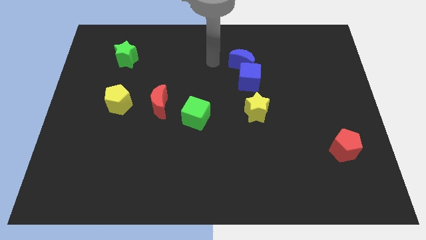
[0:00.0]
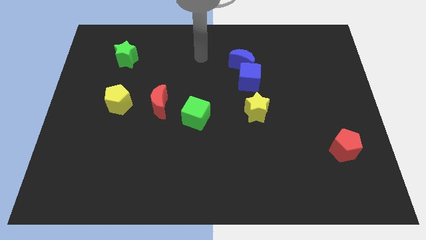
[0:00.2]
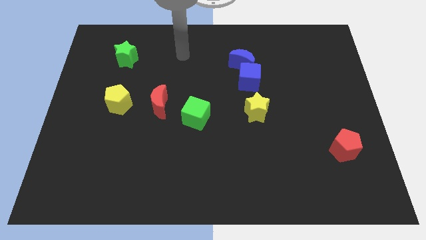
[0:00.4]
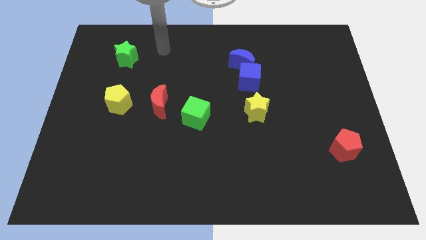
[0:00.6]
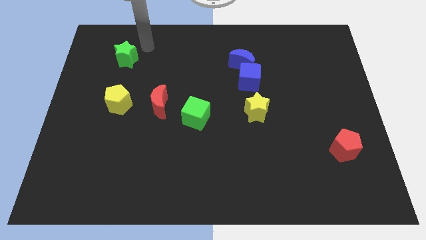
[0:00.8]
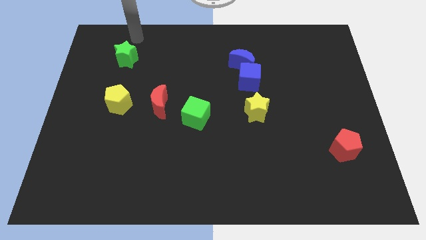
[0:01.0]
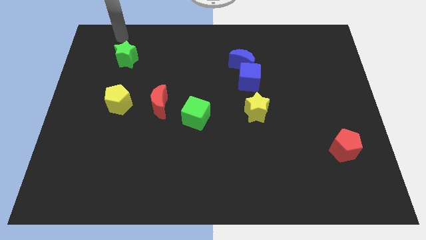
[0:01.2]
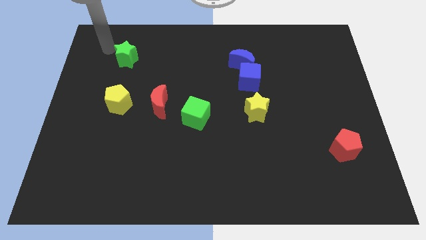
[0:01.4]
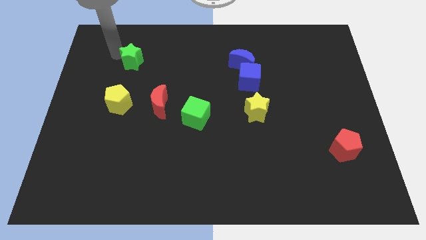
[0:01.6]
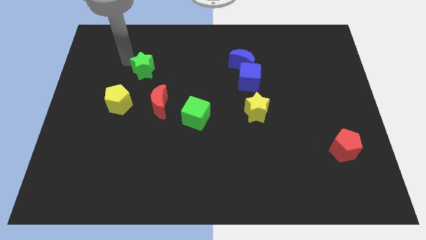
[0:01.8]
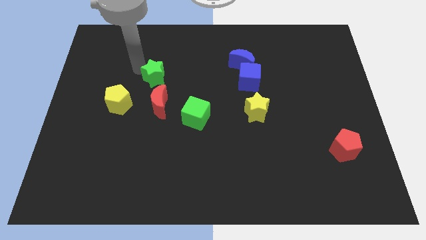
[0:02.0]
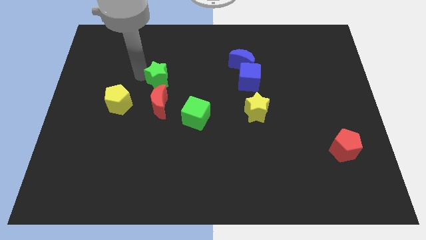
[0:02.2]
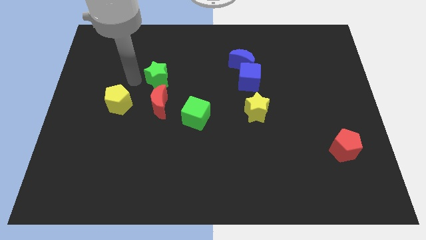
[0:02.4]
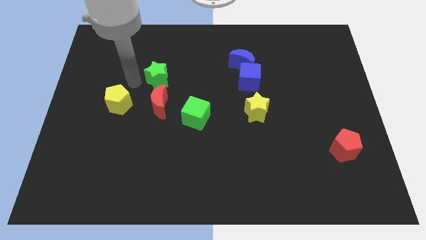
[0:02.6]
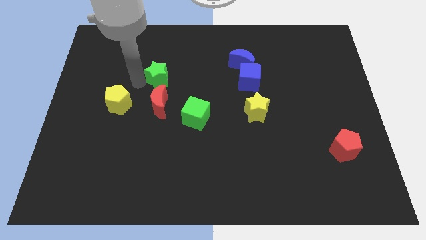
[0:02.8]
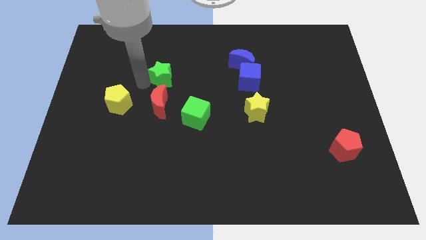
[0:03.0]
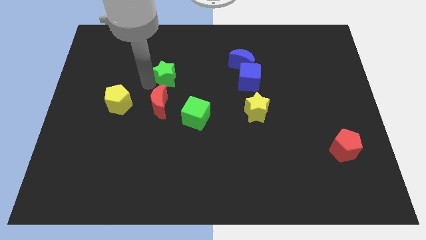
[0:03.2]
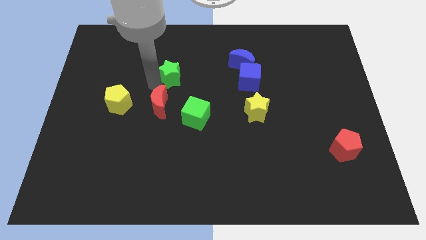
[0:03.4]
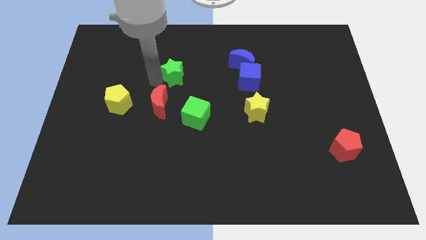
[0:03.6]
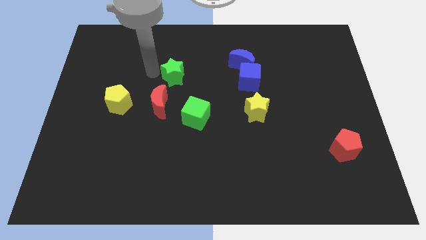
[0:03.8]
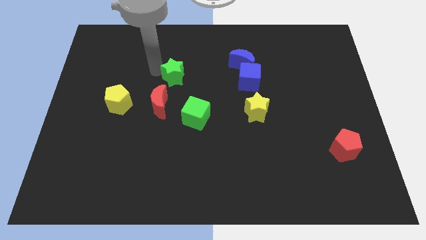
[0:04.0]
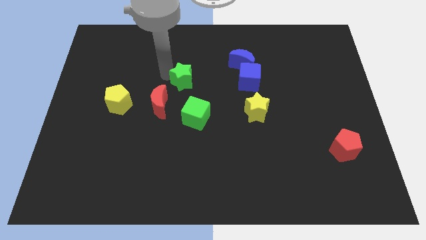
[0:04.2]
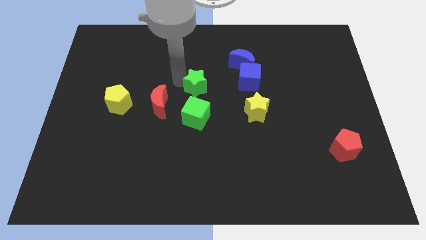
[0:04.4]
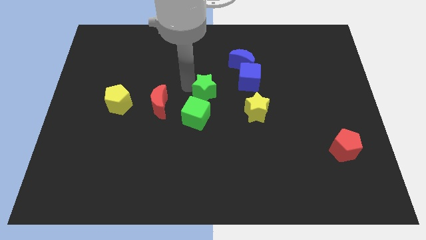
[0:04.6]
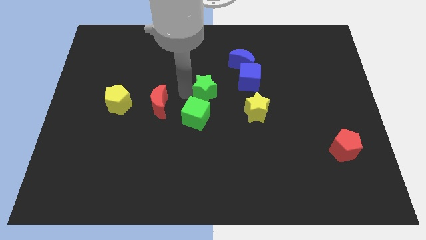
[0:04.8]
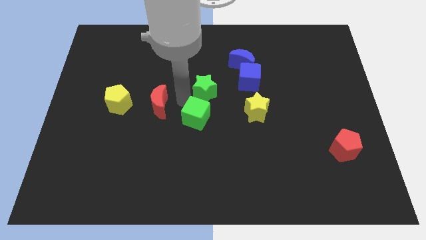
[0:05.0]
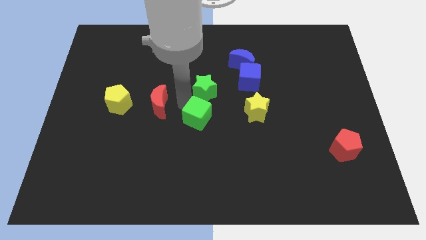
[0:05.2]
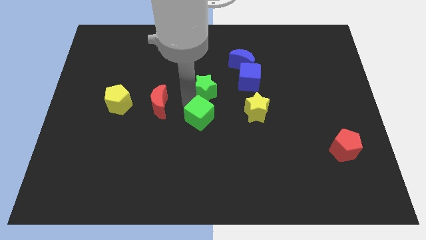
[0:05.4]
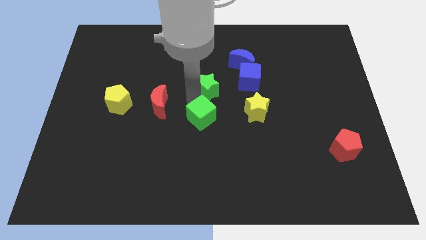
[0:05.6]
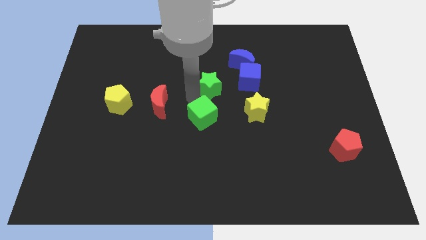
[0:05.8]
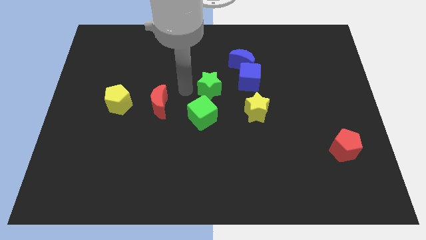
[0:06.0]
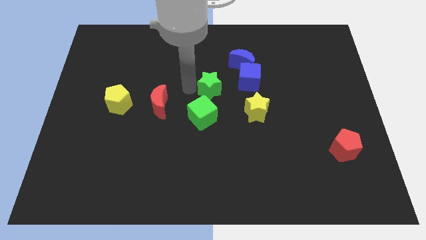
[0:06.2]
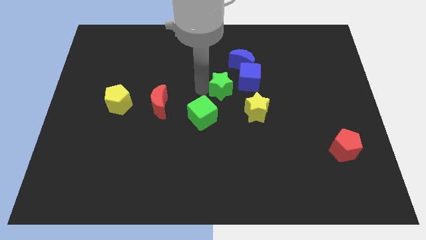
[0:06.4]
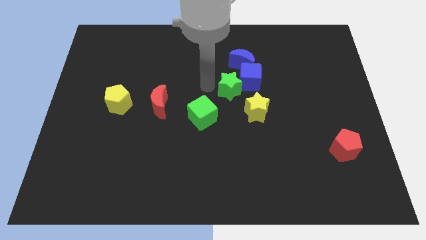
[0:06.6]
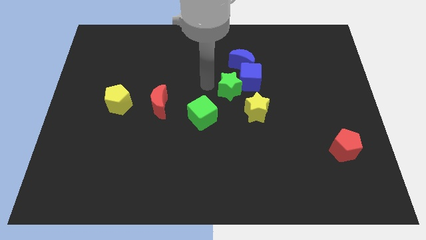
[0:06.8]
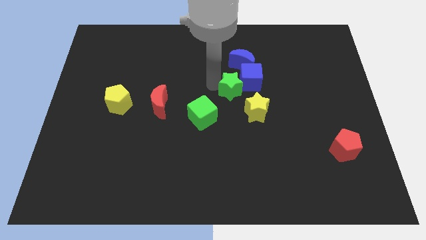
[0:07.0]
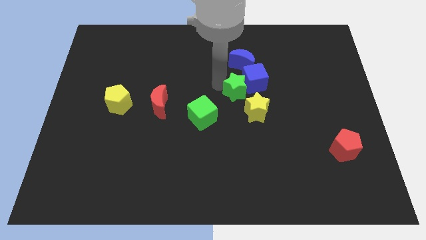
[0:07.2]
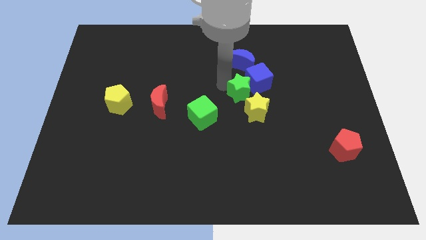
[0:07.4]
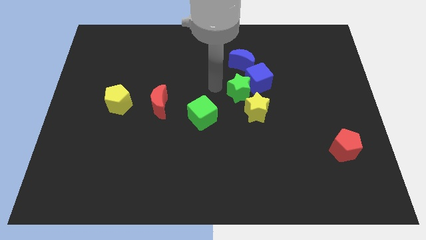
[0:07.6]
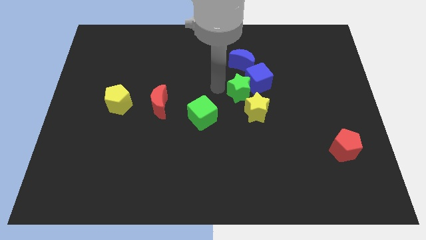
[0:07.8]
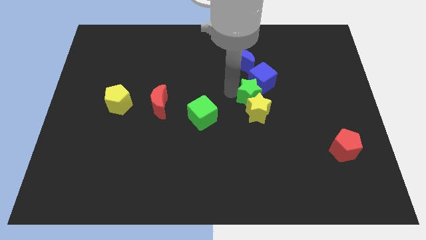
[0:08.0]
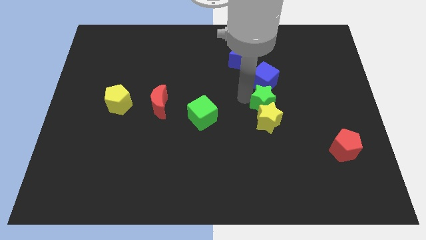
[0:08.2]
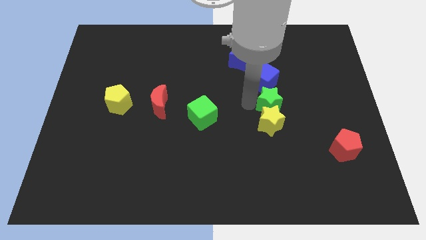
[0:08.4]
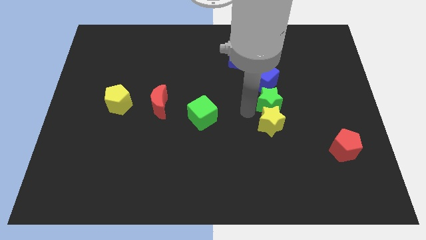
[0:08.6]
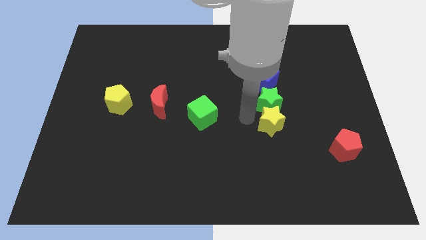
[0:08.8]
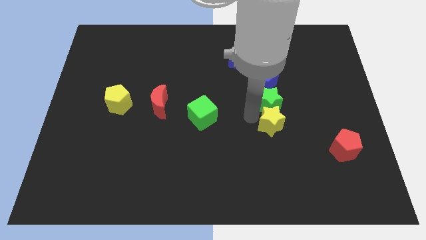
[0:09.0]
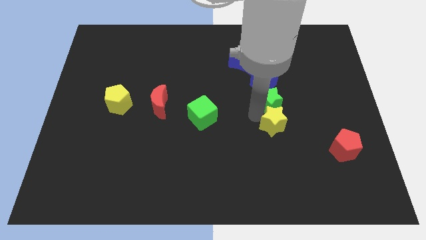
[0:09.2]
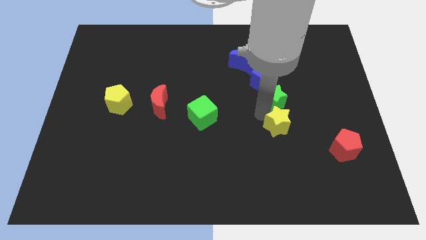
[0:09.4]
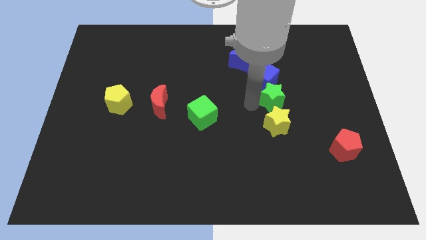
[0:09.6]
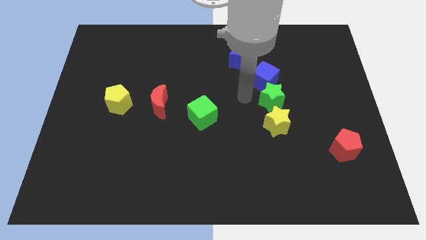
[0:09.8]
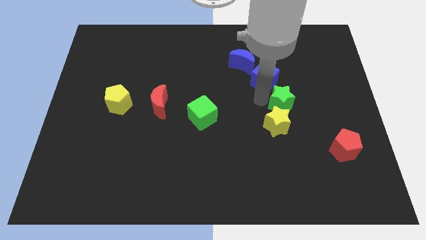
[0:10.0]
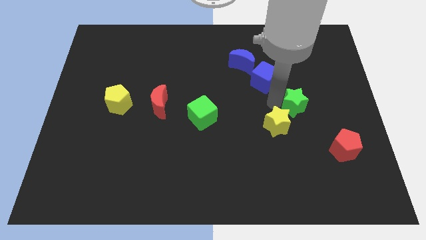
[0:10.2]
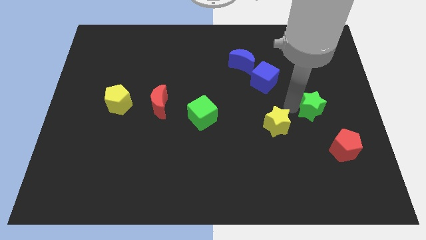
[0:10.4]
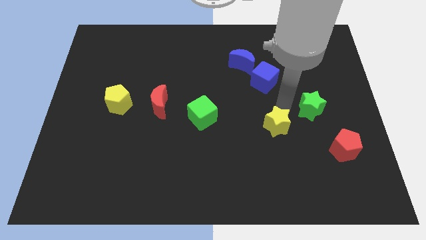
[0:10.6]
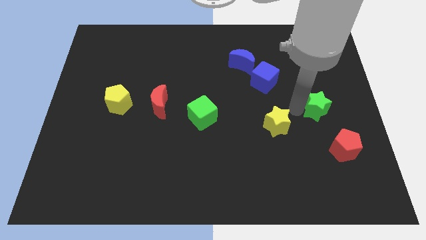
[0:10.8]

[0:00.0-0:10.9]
slide the green star above the red pentagon

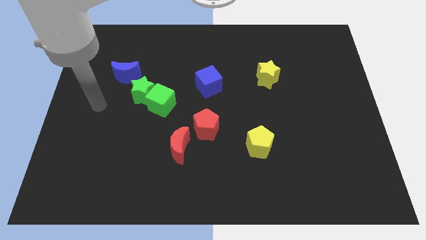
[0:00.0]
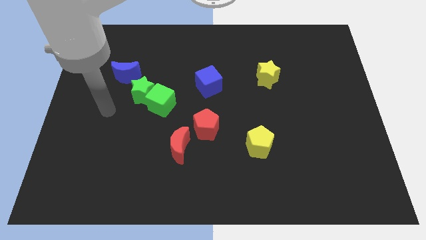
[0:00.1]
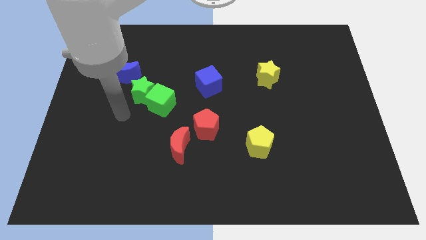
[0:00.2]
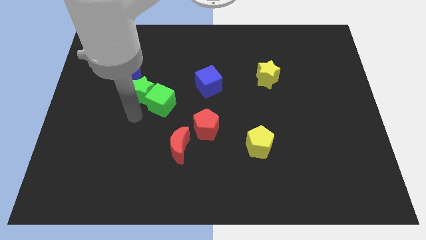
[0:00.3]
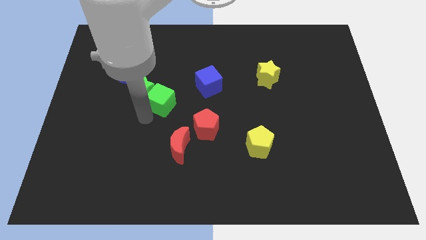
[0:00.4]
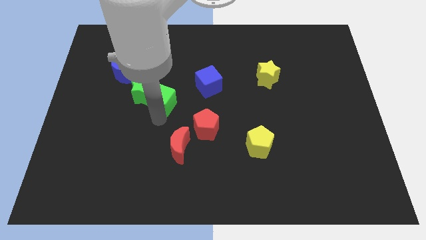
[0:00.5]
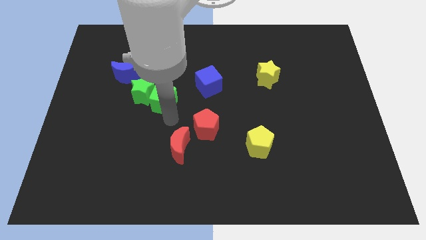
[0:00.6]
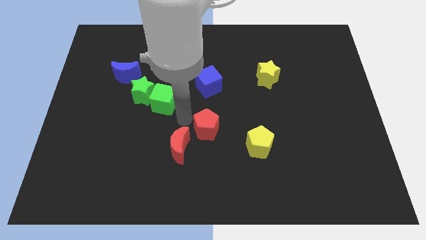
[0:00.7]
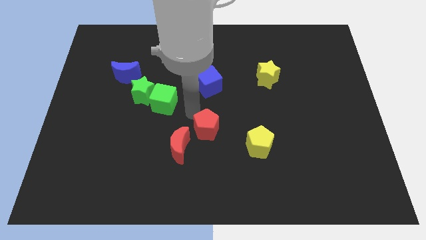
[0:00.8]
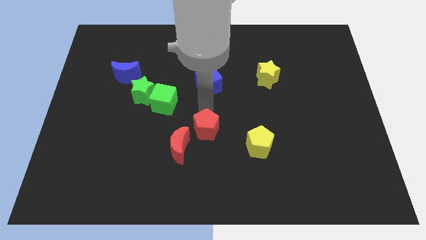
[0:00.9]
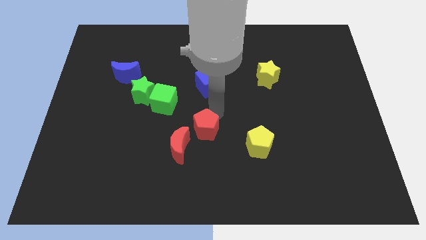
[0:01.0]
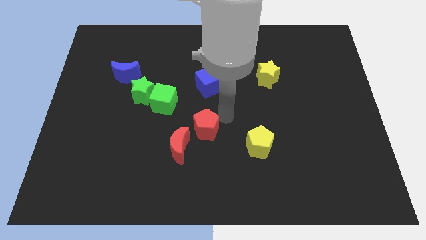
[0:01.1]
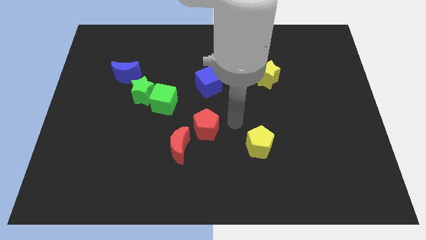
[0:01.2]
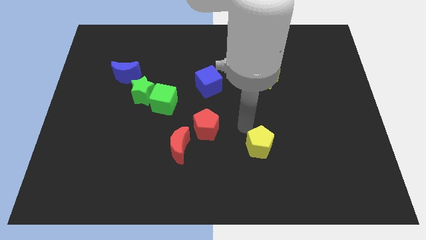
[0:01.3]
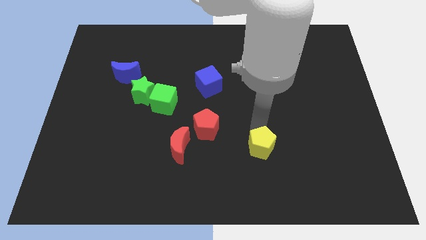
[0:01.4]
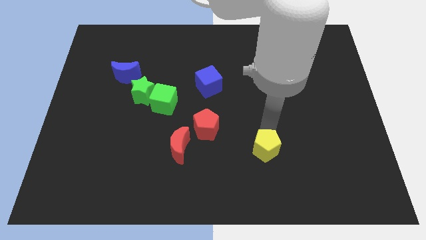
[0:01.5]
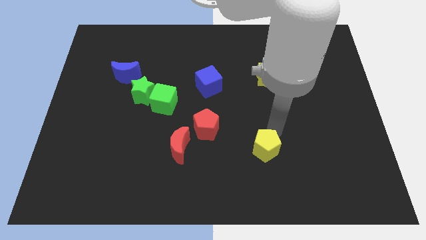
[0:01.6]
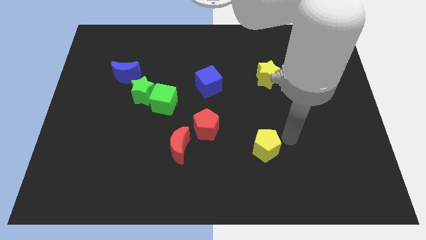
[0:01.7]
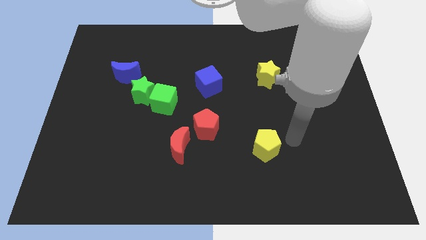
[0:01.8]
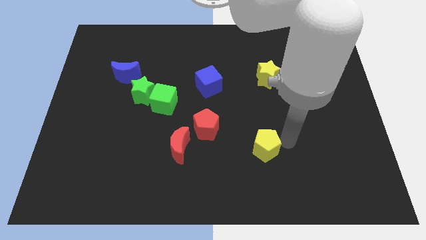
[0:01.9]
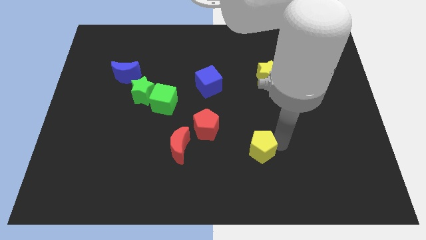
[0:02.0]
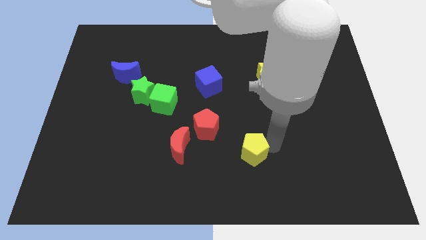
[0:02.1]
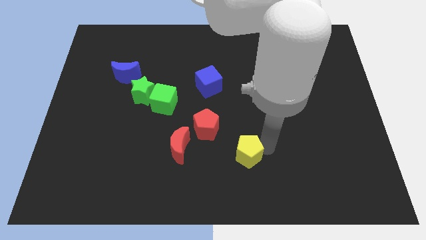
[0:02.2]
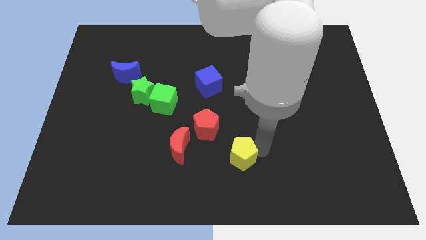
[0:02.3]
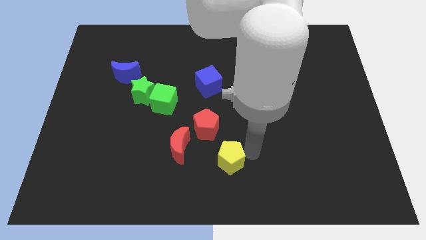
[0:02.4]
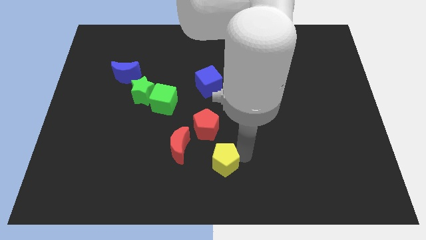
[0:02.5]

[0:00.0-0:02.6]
push the yellow pentagon below the red pentagon
